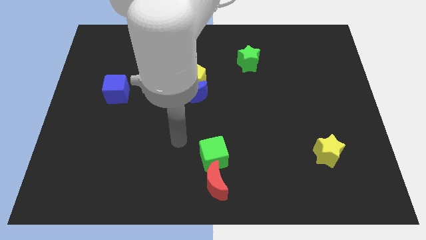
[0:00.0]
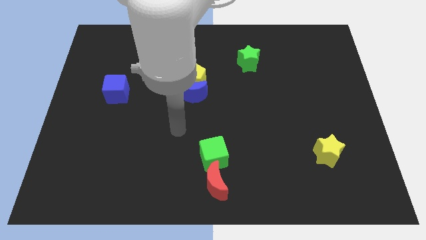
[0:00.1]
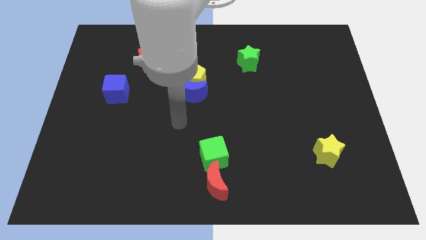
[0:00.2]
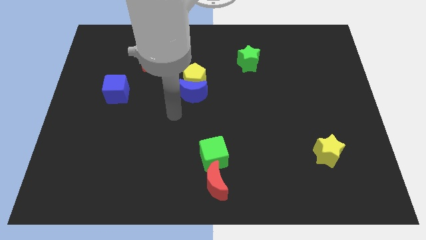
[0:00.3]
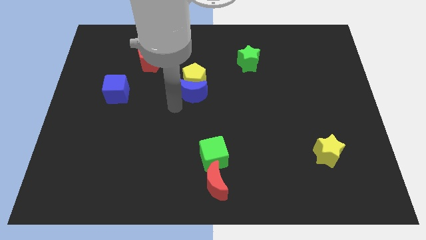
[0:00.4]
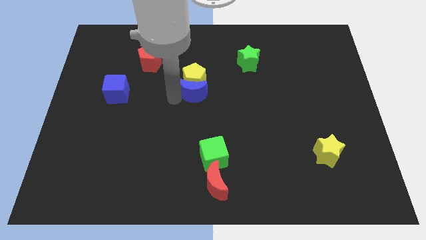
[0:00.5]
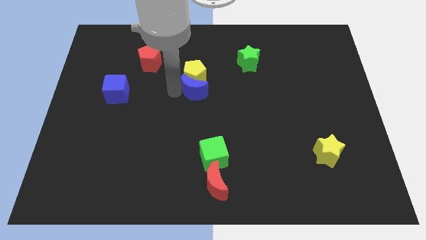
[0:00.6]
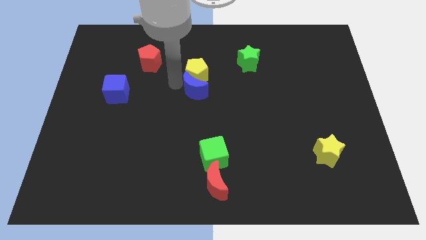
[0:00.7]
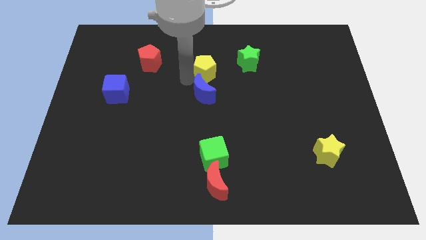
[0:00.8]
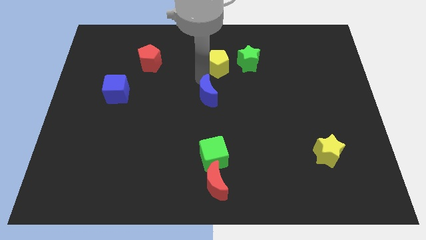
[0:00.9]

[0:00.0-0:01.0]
separate the blue moon from the yellow pentagon

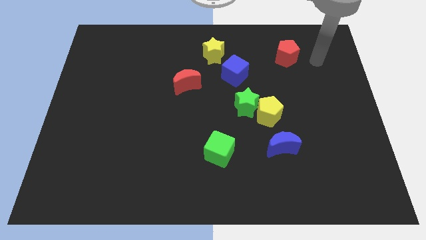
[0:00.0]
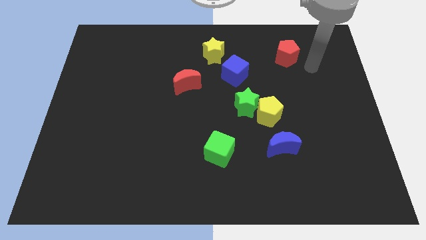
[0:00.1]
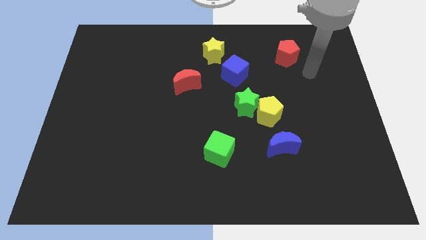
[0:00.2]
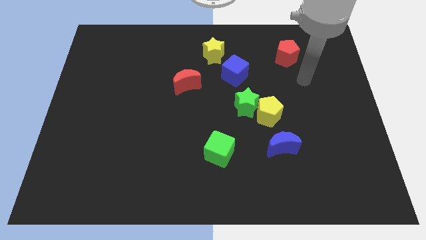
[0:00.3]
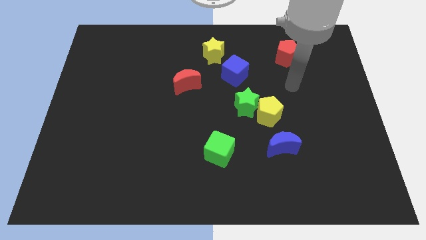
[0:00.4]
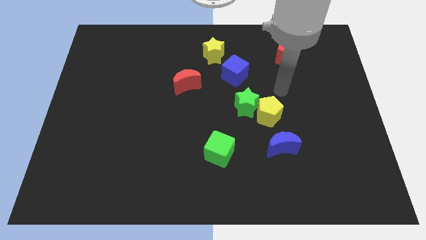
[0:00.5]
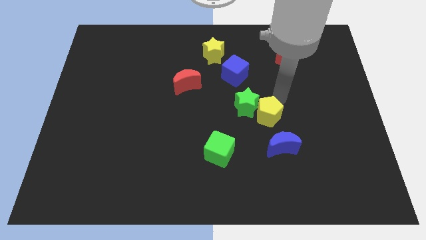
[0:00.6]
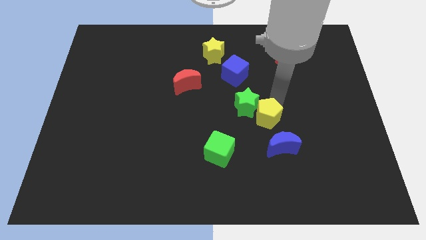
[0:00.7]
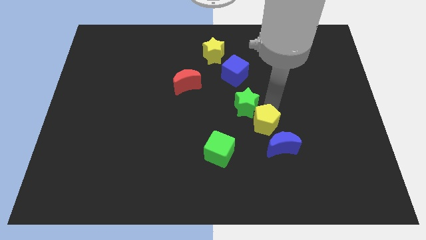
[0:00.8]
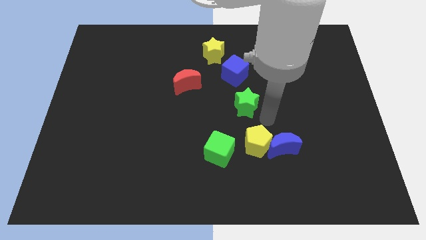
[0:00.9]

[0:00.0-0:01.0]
separate the green star from the yellow pentagon

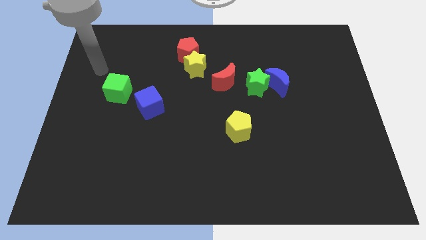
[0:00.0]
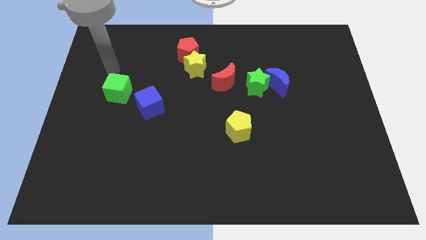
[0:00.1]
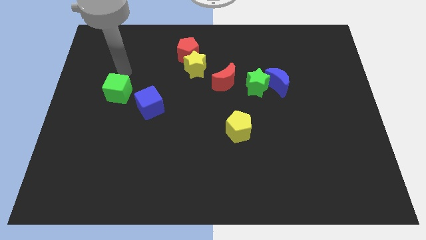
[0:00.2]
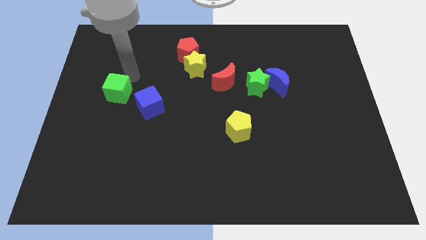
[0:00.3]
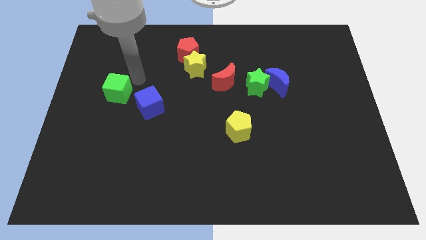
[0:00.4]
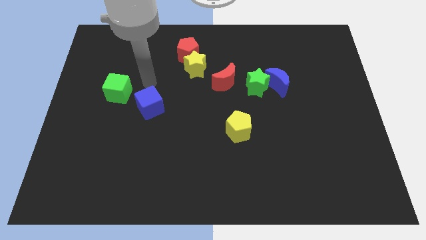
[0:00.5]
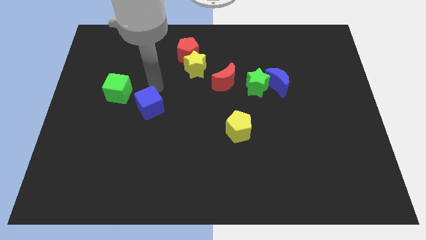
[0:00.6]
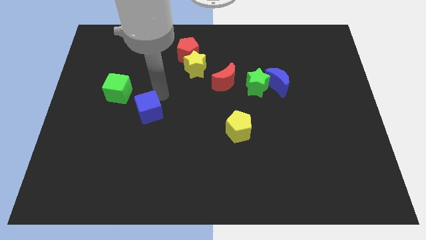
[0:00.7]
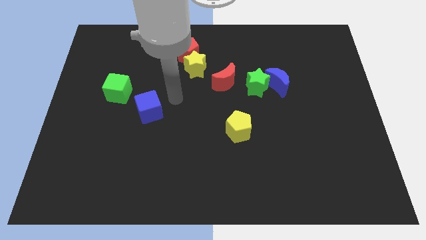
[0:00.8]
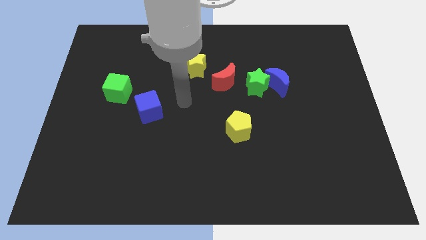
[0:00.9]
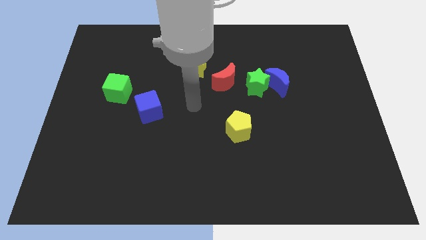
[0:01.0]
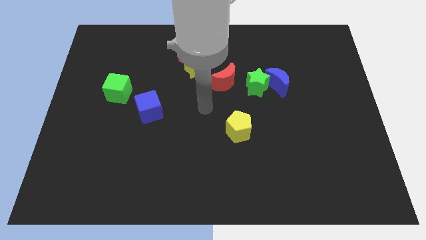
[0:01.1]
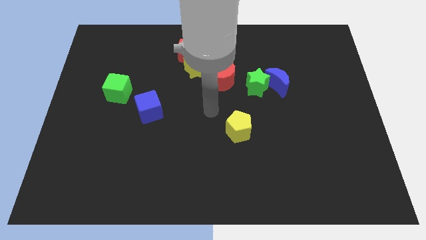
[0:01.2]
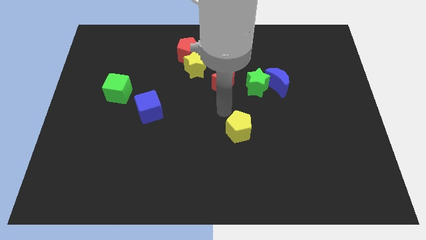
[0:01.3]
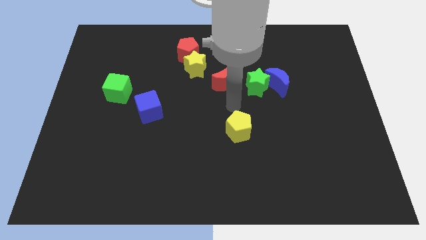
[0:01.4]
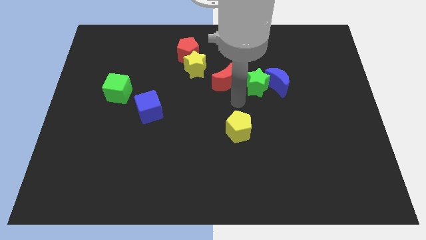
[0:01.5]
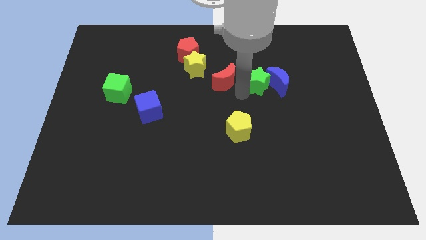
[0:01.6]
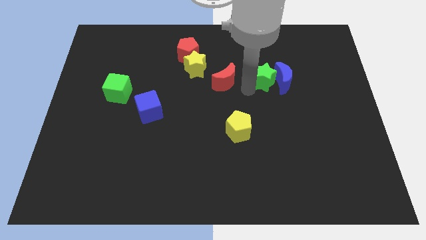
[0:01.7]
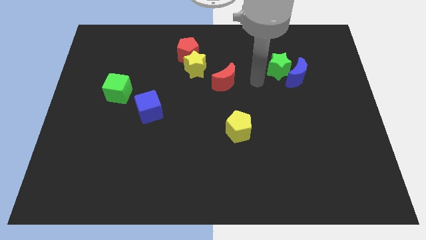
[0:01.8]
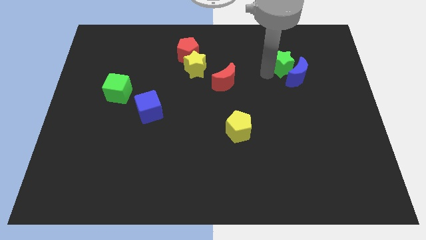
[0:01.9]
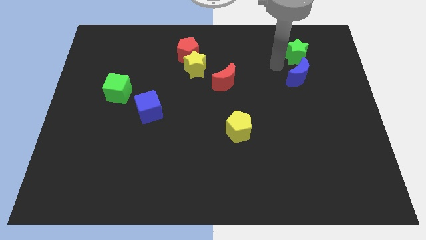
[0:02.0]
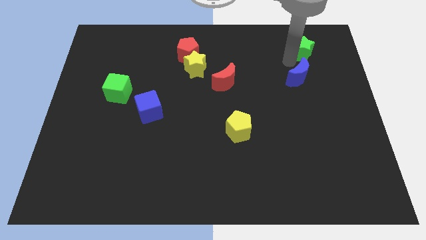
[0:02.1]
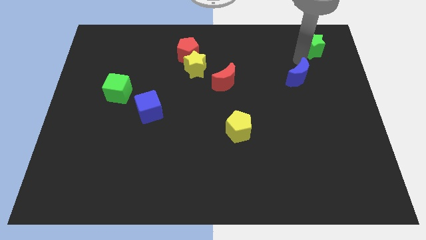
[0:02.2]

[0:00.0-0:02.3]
pull the blue moon apart from the green star

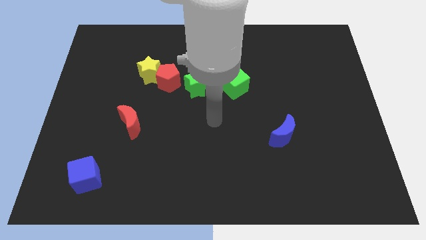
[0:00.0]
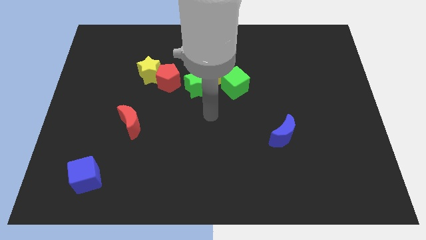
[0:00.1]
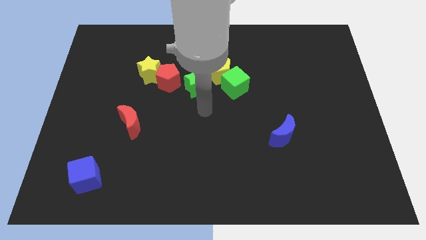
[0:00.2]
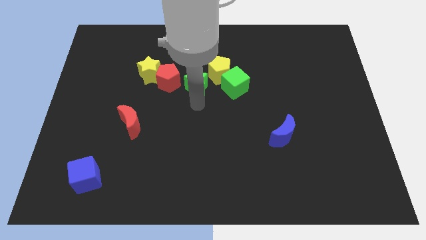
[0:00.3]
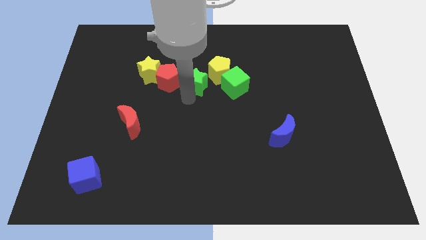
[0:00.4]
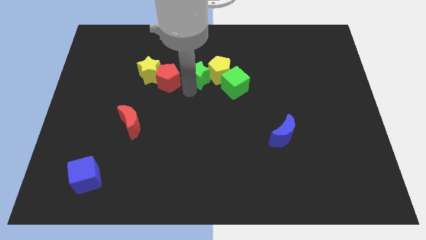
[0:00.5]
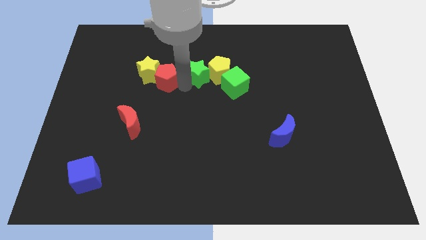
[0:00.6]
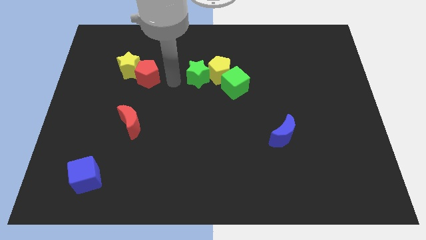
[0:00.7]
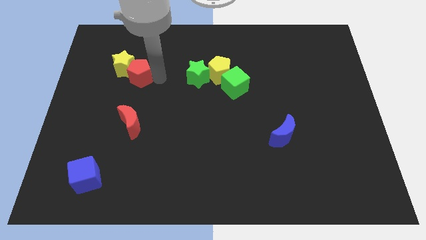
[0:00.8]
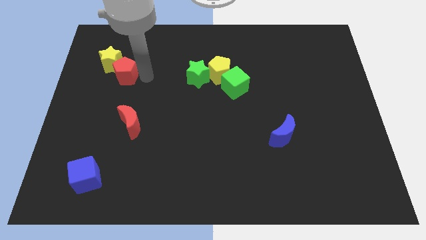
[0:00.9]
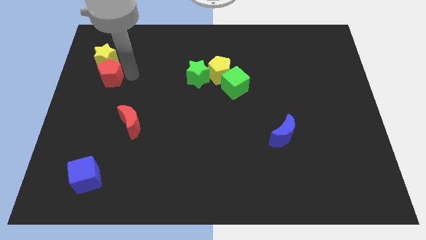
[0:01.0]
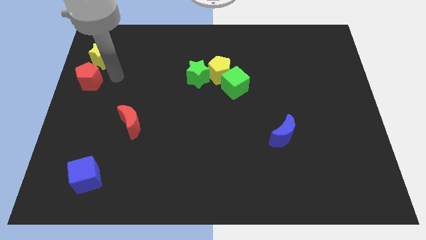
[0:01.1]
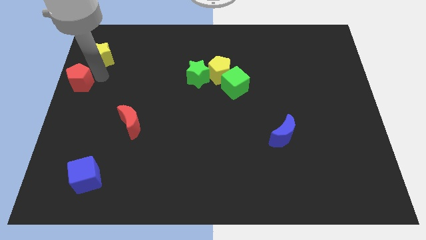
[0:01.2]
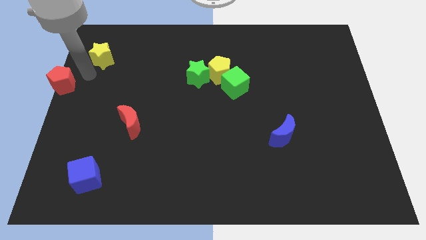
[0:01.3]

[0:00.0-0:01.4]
pull the yellow star apart from the red pentagon

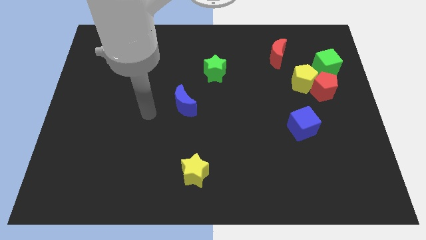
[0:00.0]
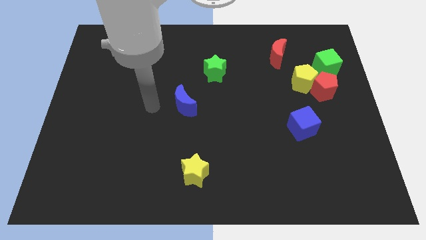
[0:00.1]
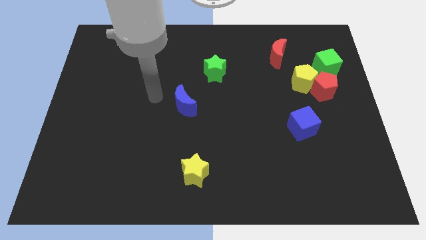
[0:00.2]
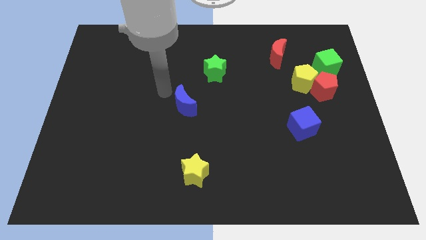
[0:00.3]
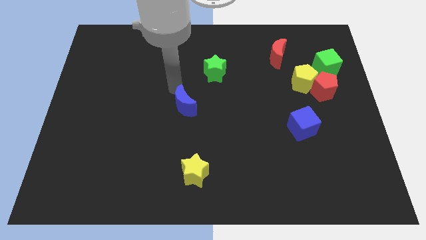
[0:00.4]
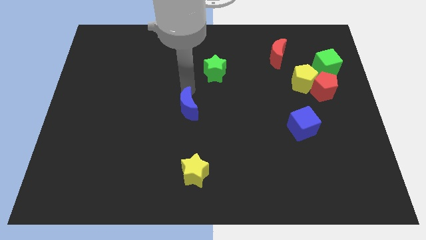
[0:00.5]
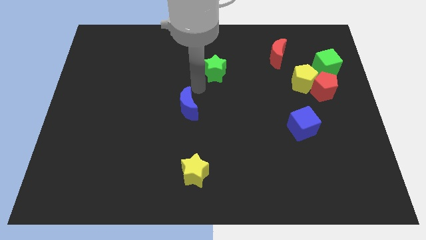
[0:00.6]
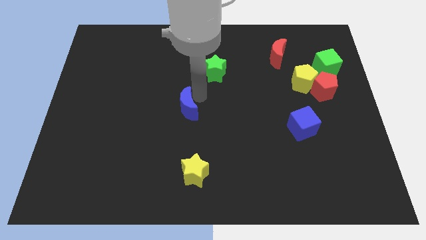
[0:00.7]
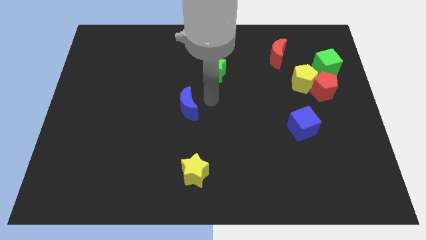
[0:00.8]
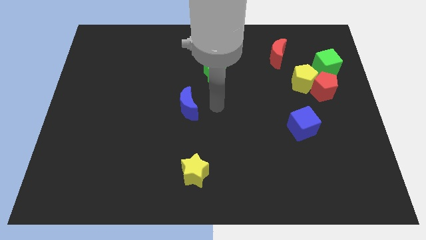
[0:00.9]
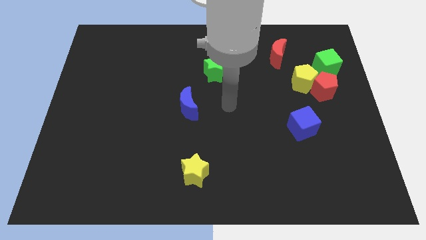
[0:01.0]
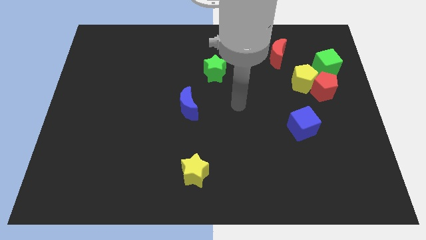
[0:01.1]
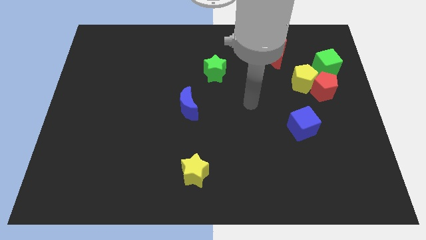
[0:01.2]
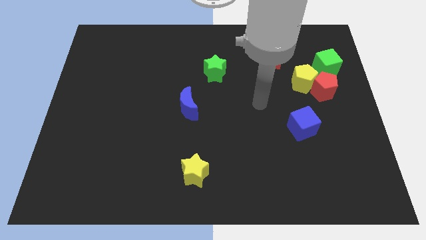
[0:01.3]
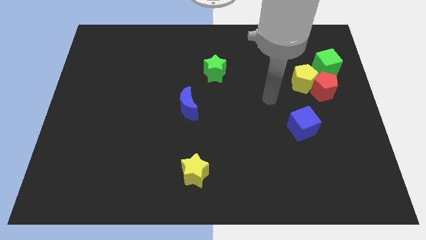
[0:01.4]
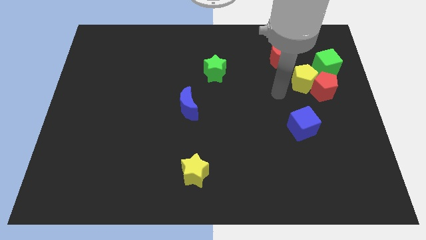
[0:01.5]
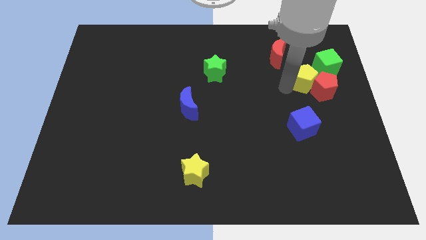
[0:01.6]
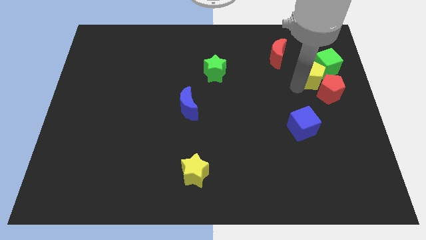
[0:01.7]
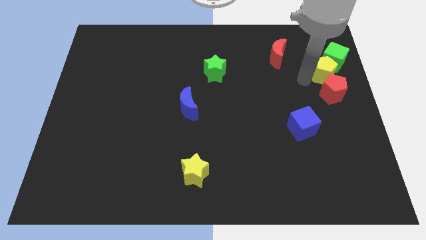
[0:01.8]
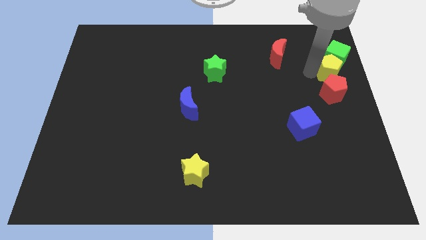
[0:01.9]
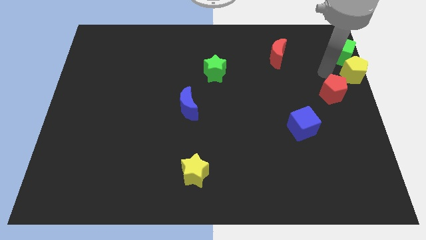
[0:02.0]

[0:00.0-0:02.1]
move the red pentagon away from the yellow pentagon and green cube

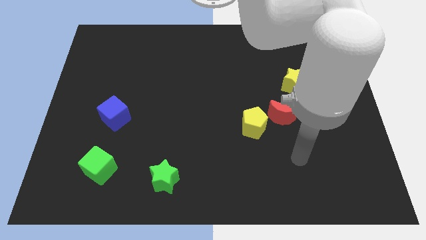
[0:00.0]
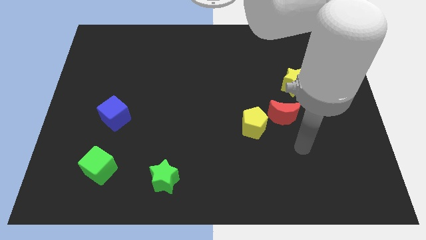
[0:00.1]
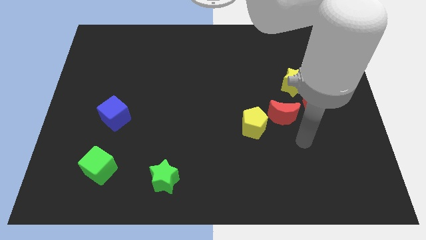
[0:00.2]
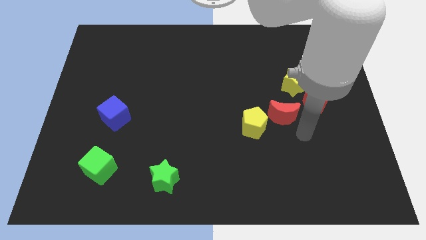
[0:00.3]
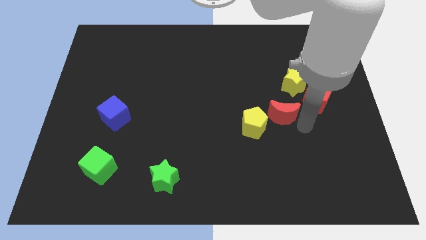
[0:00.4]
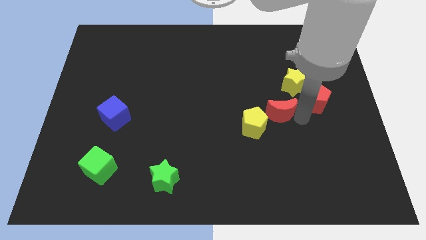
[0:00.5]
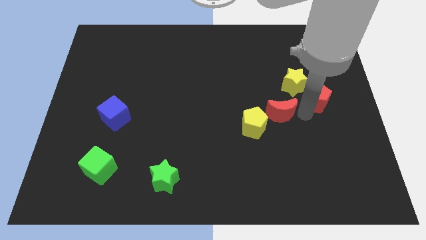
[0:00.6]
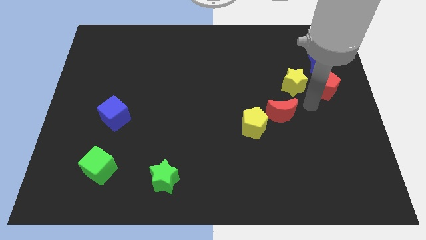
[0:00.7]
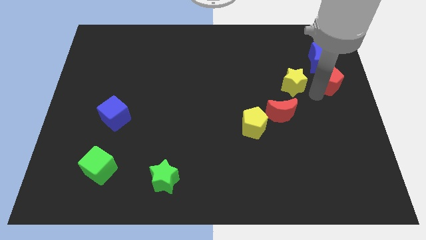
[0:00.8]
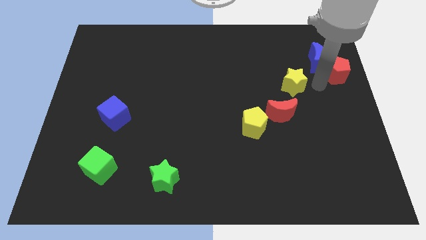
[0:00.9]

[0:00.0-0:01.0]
separate the yellow star from the red pentagon

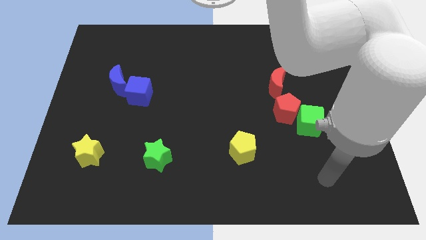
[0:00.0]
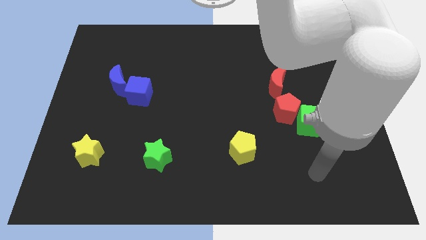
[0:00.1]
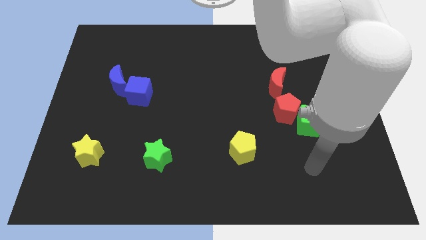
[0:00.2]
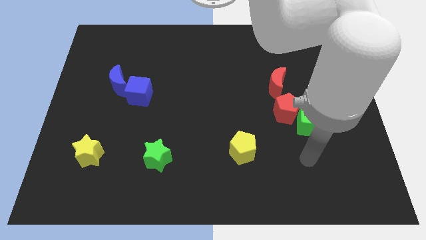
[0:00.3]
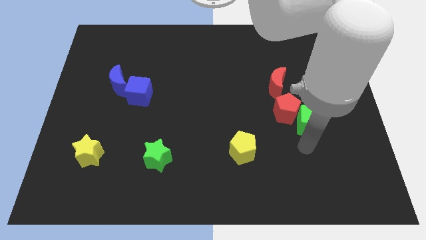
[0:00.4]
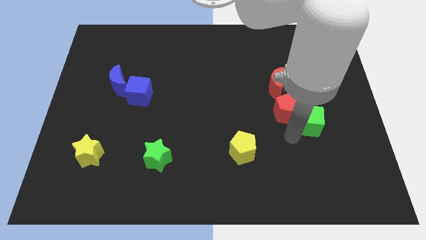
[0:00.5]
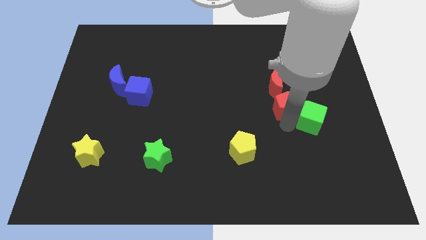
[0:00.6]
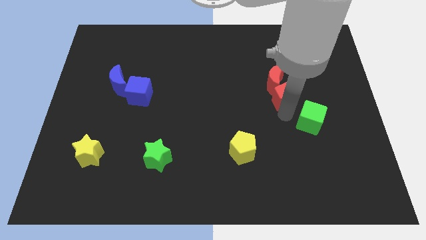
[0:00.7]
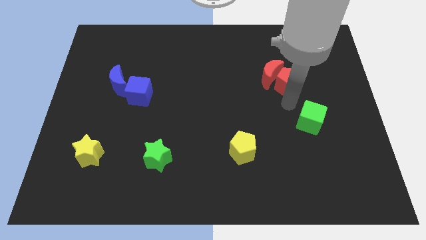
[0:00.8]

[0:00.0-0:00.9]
pull the green cube apart from the red pentagon
